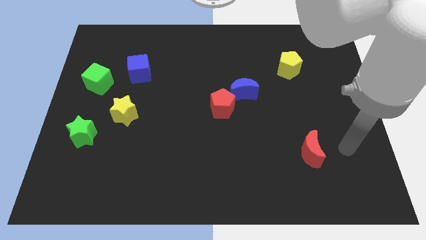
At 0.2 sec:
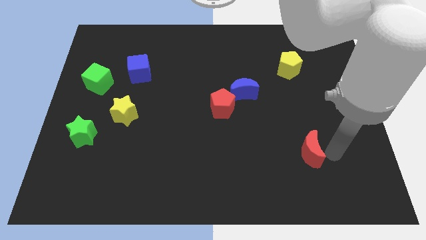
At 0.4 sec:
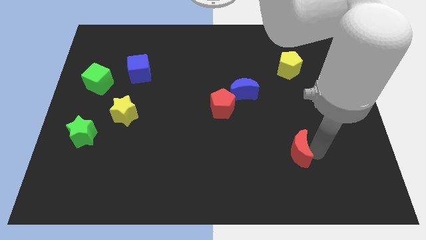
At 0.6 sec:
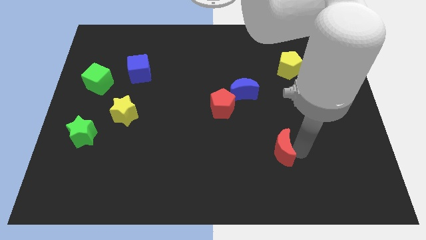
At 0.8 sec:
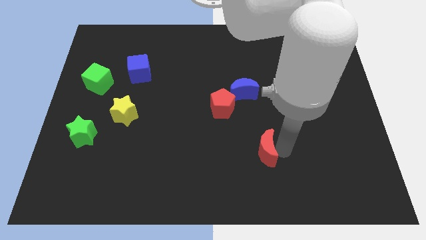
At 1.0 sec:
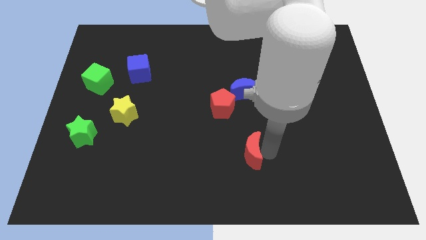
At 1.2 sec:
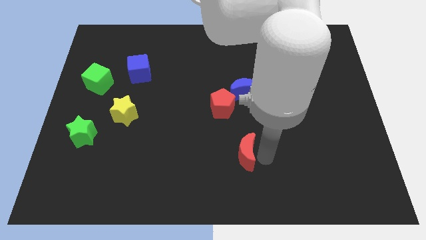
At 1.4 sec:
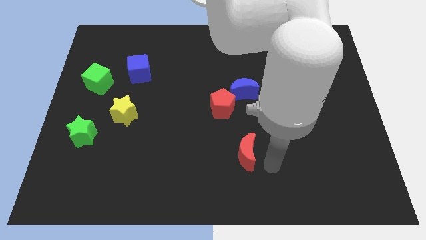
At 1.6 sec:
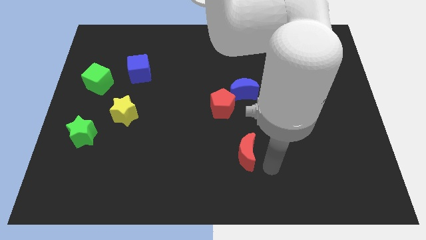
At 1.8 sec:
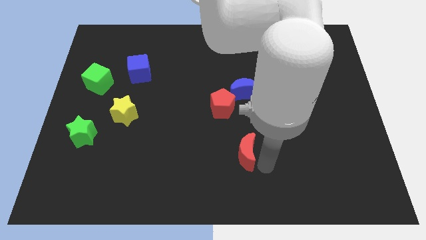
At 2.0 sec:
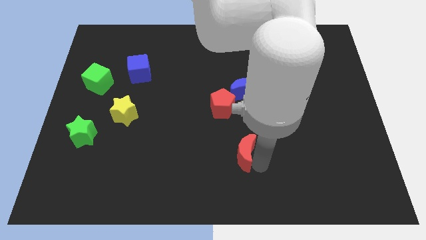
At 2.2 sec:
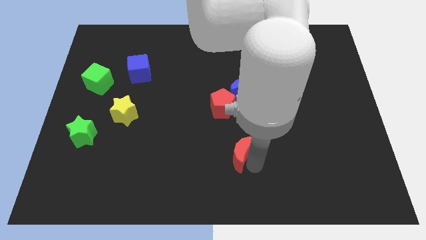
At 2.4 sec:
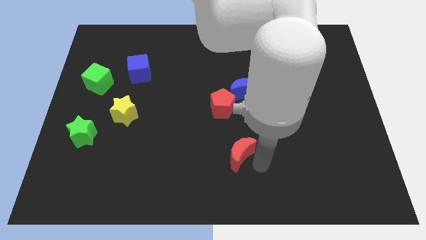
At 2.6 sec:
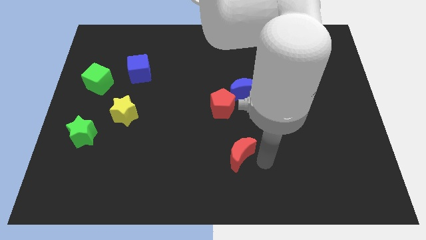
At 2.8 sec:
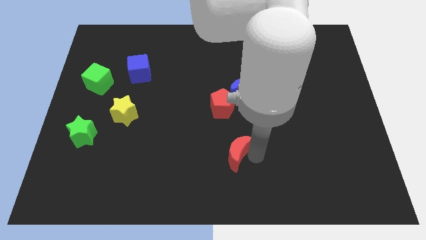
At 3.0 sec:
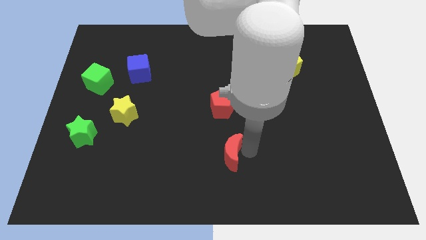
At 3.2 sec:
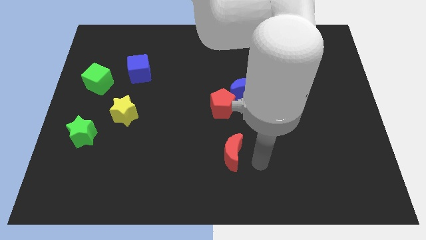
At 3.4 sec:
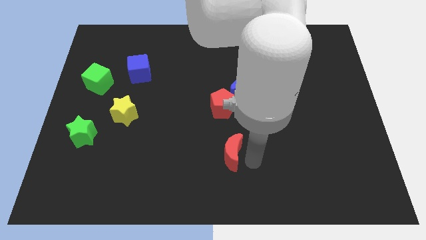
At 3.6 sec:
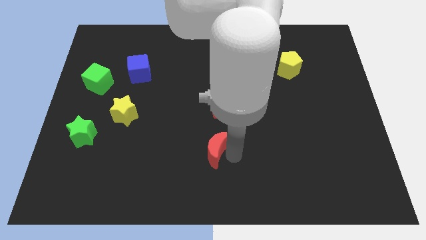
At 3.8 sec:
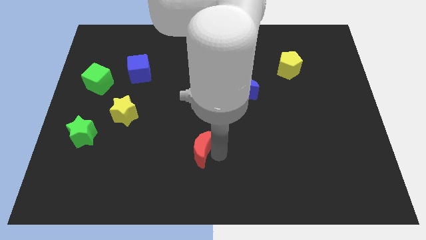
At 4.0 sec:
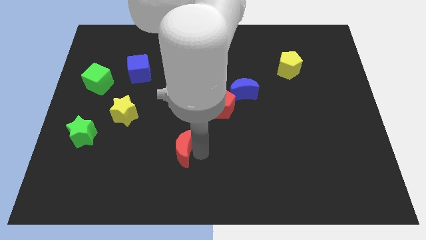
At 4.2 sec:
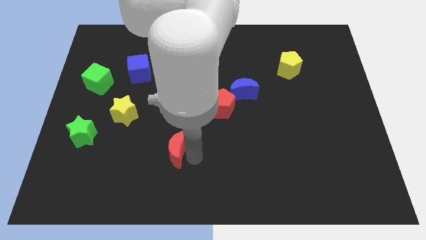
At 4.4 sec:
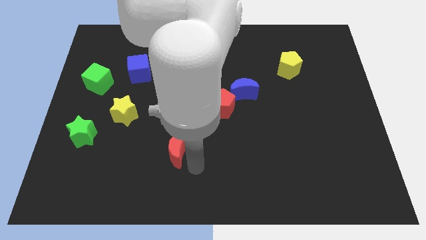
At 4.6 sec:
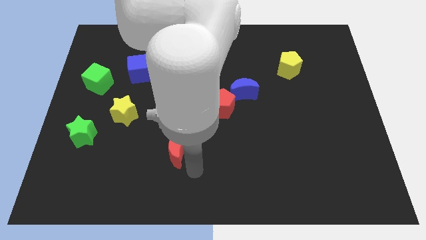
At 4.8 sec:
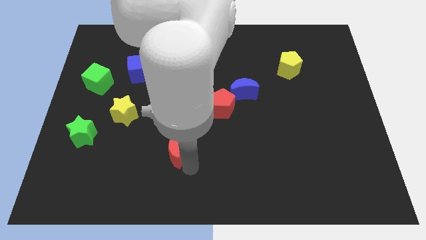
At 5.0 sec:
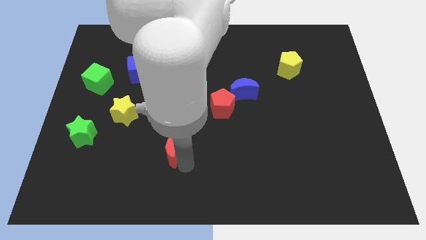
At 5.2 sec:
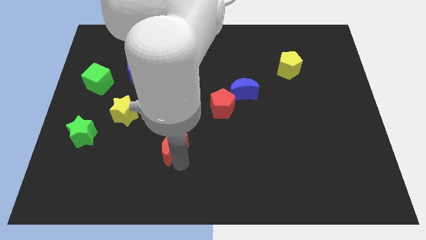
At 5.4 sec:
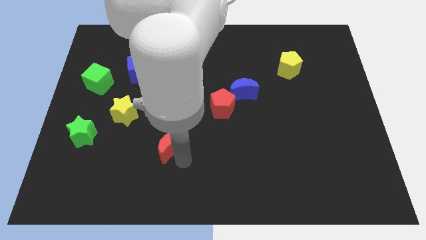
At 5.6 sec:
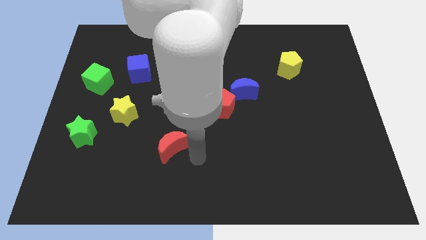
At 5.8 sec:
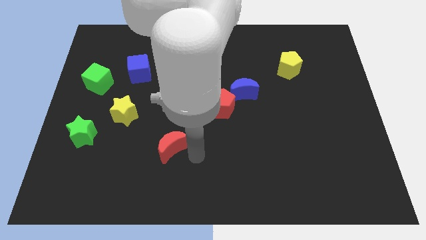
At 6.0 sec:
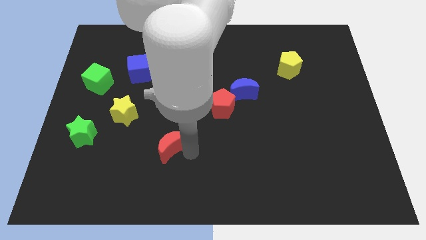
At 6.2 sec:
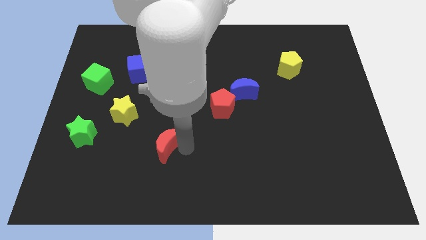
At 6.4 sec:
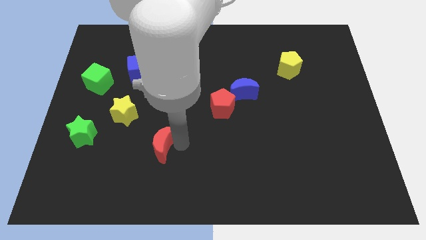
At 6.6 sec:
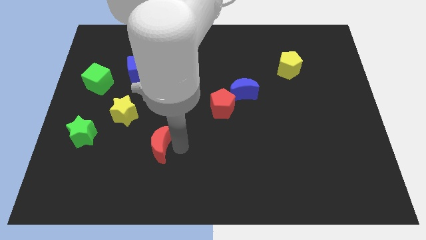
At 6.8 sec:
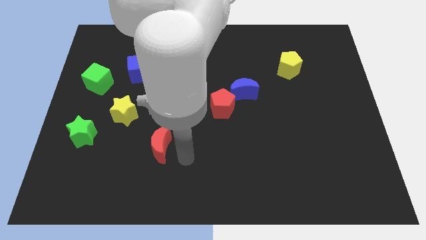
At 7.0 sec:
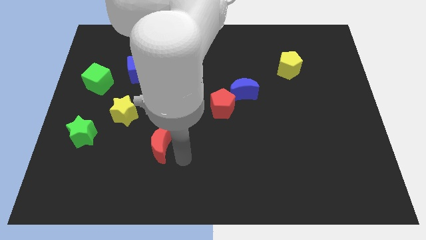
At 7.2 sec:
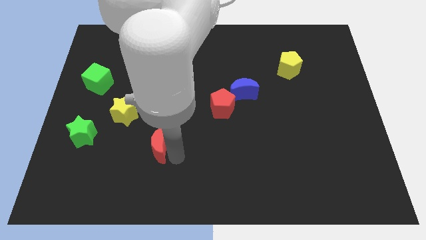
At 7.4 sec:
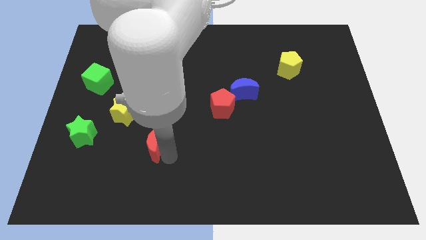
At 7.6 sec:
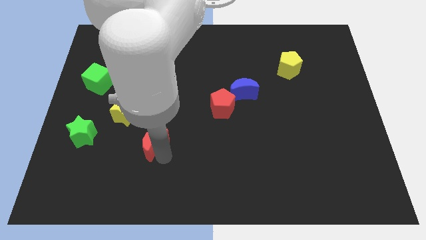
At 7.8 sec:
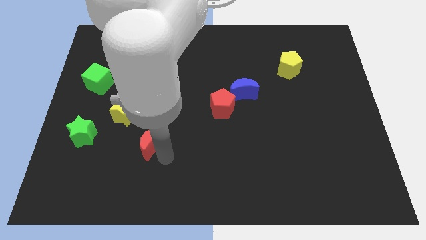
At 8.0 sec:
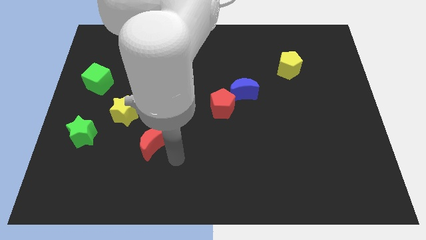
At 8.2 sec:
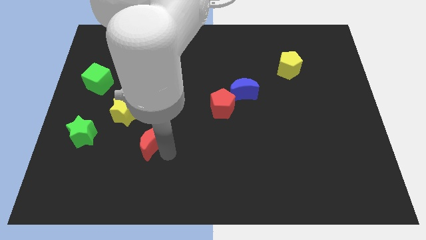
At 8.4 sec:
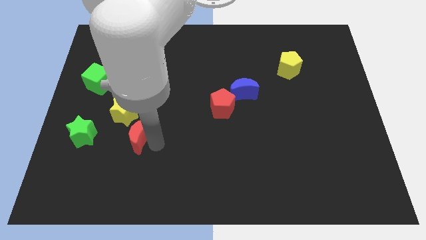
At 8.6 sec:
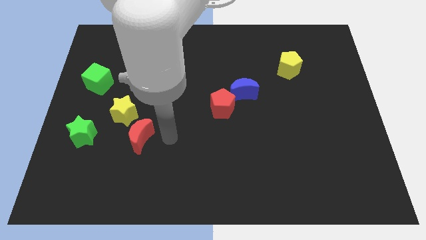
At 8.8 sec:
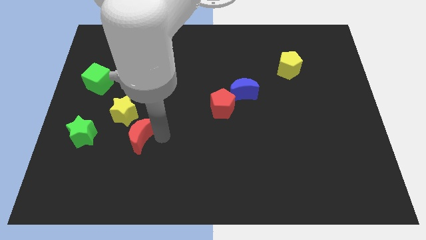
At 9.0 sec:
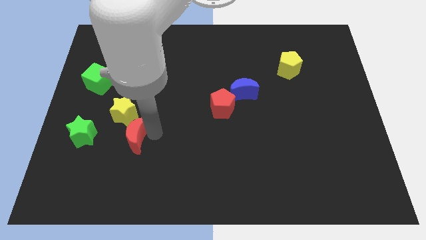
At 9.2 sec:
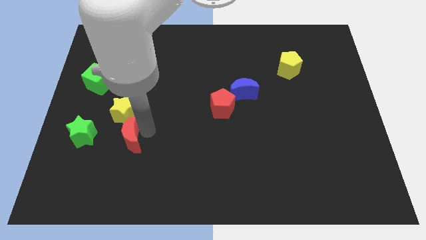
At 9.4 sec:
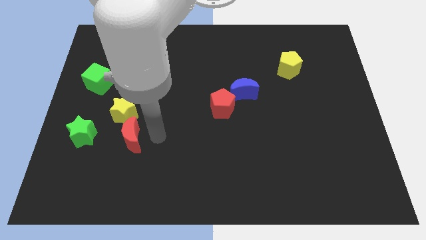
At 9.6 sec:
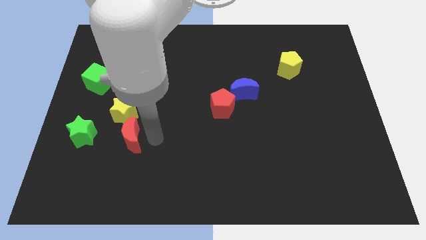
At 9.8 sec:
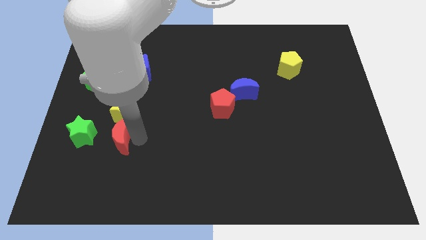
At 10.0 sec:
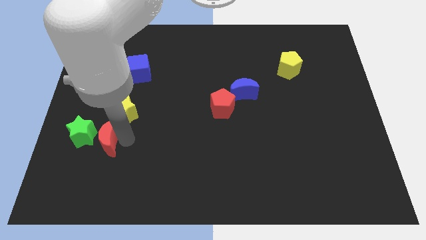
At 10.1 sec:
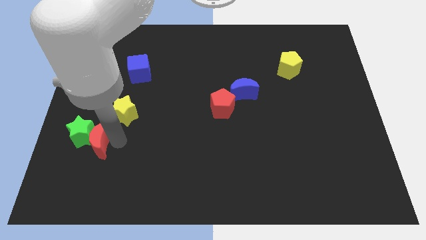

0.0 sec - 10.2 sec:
put the red moon to the green star

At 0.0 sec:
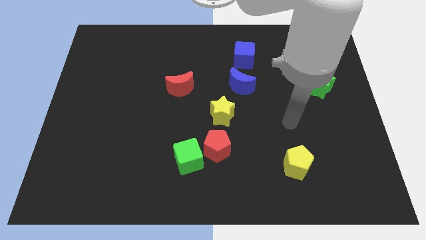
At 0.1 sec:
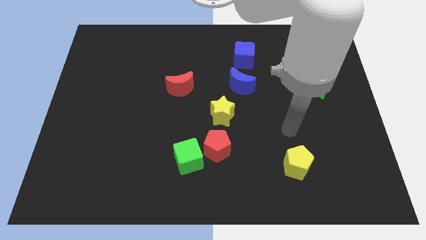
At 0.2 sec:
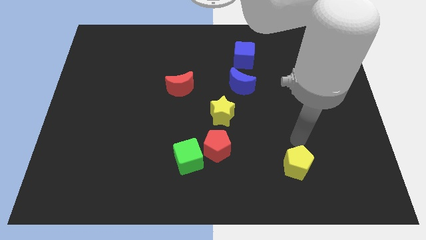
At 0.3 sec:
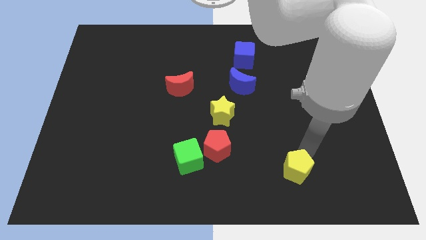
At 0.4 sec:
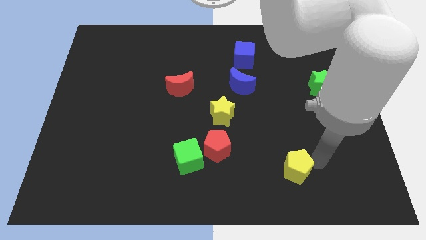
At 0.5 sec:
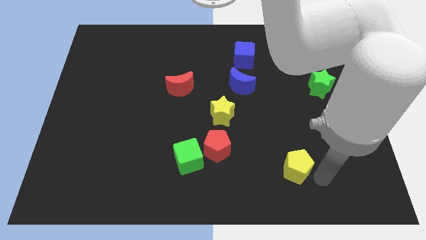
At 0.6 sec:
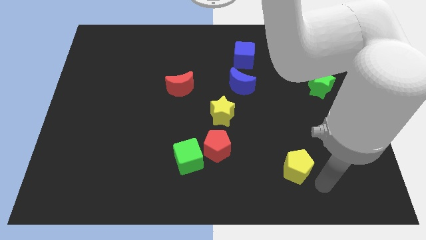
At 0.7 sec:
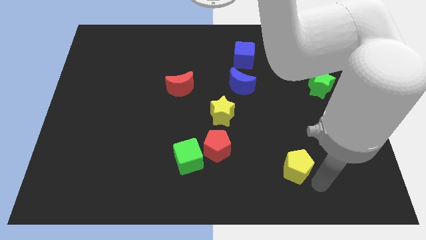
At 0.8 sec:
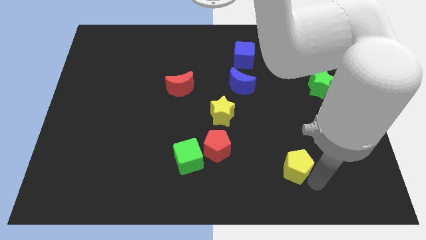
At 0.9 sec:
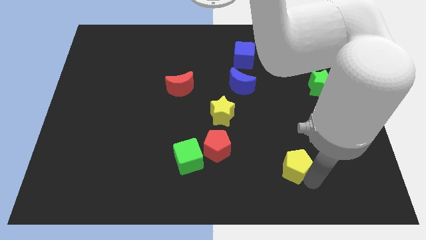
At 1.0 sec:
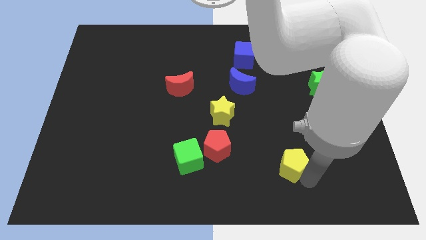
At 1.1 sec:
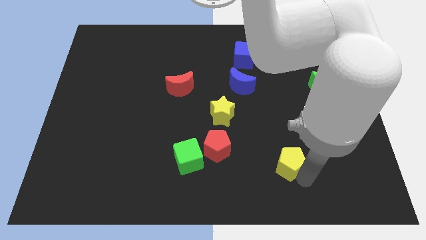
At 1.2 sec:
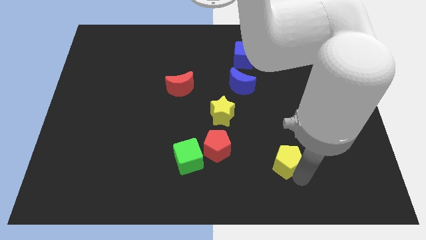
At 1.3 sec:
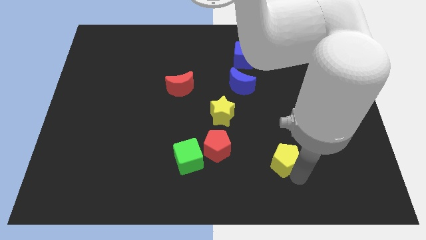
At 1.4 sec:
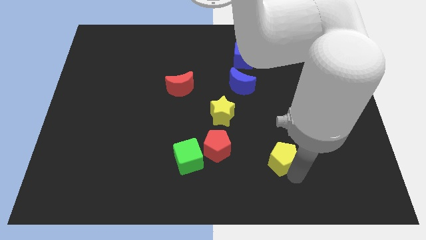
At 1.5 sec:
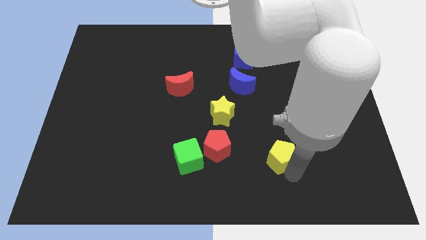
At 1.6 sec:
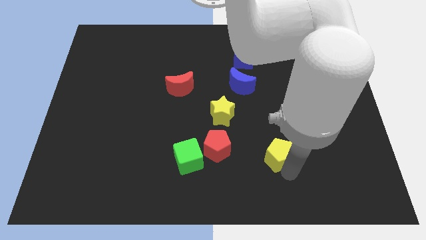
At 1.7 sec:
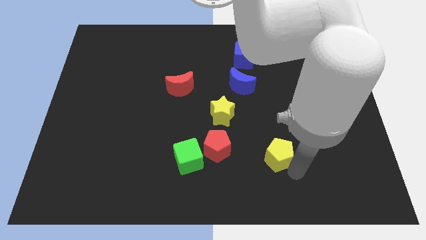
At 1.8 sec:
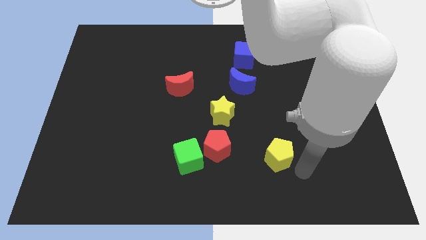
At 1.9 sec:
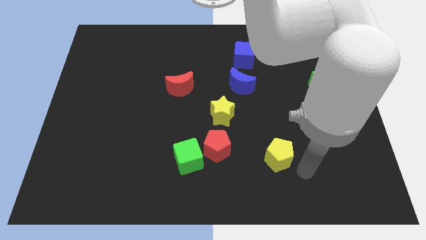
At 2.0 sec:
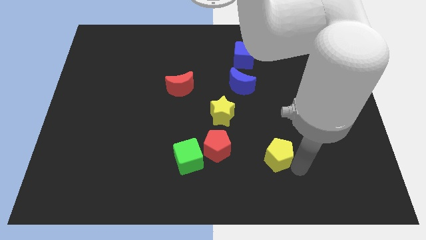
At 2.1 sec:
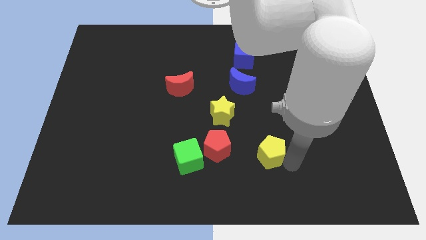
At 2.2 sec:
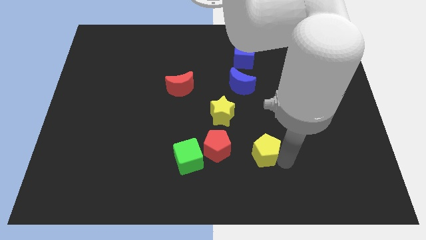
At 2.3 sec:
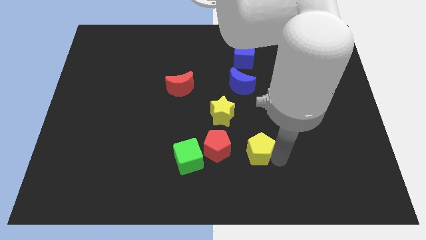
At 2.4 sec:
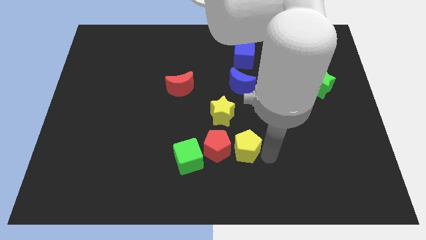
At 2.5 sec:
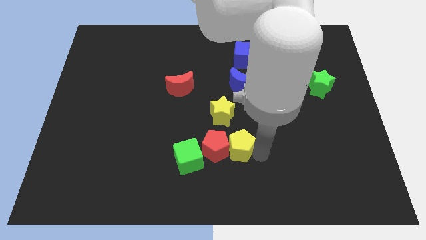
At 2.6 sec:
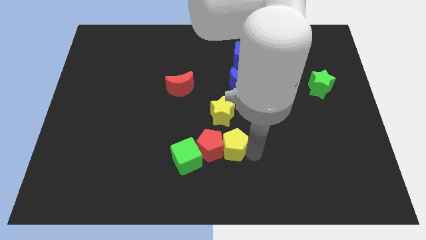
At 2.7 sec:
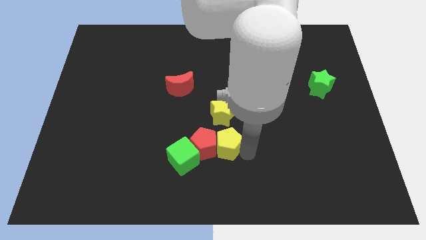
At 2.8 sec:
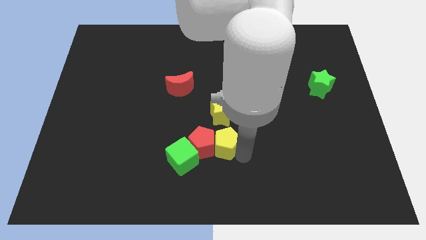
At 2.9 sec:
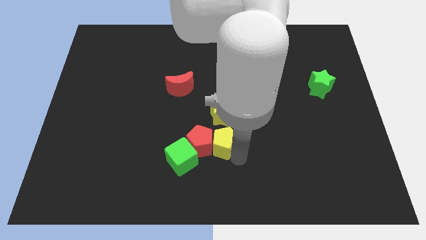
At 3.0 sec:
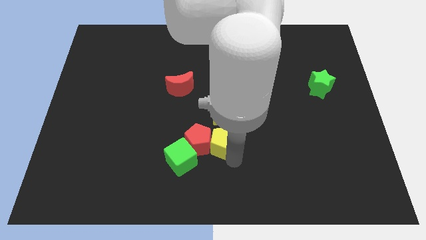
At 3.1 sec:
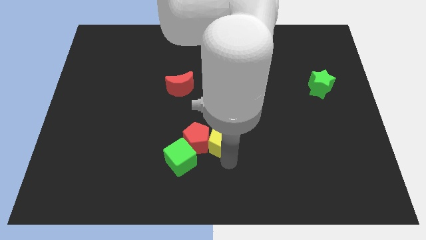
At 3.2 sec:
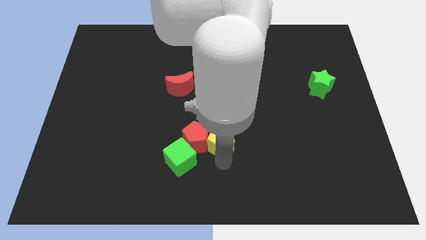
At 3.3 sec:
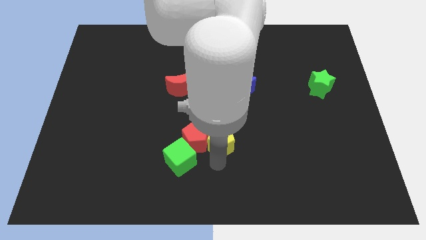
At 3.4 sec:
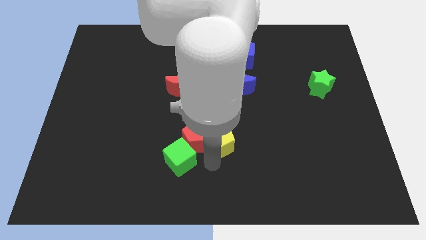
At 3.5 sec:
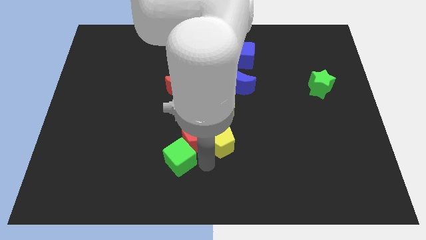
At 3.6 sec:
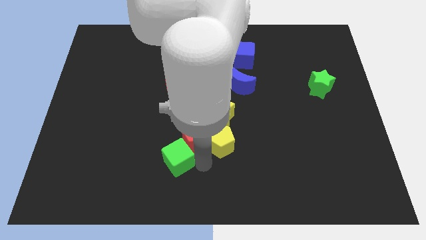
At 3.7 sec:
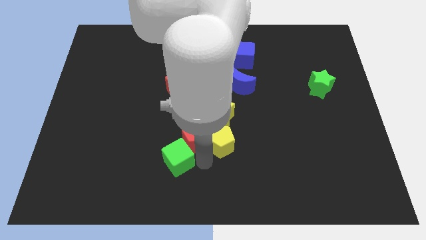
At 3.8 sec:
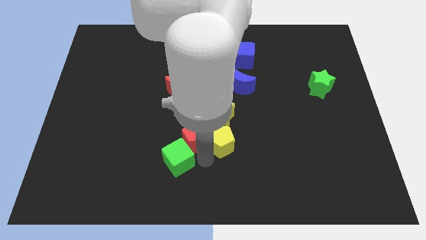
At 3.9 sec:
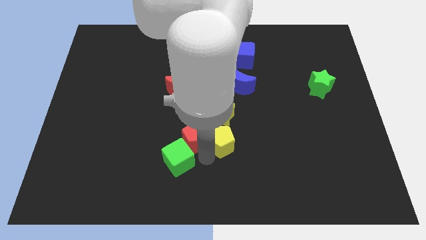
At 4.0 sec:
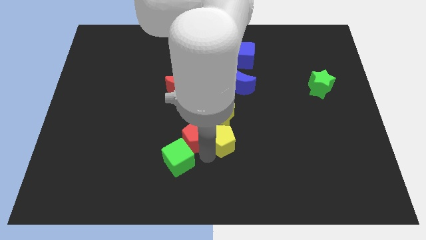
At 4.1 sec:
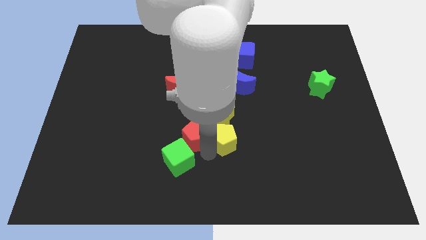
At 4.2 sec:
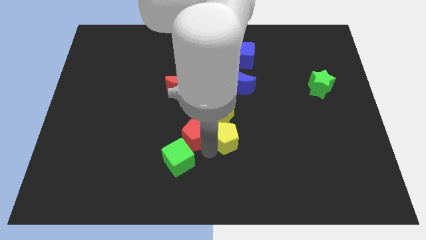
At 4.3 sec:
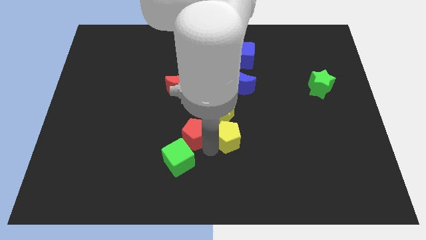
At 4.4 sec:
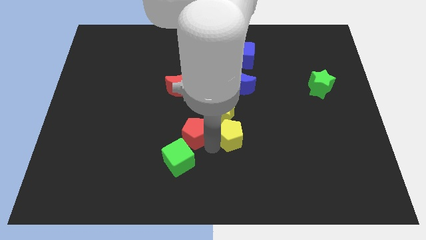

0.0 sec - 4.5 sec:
slide the yellow pentagon to the yellow star
